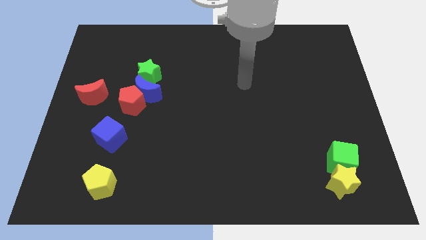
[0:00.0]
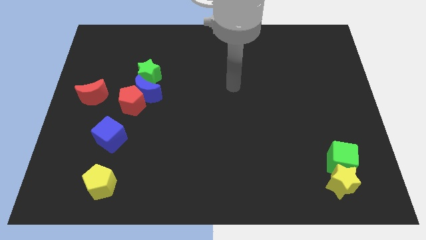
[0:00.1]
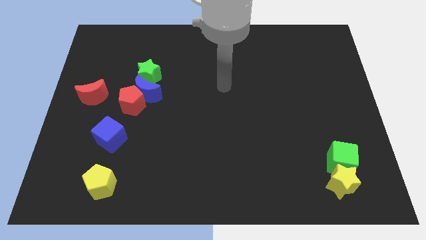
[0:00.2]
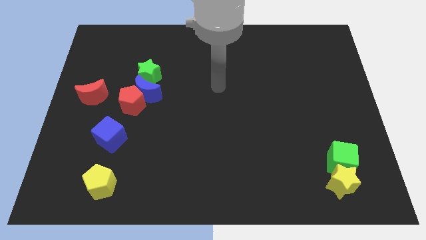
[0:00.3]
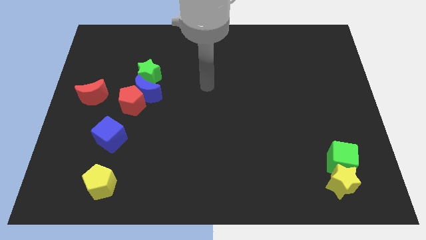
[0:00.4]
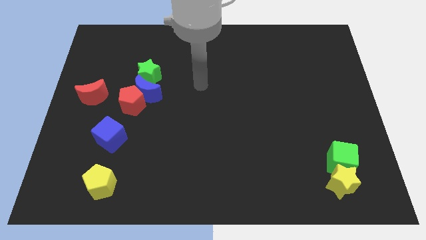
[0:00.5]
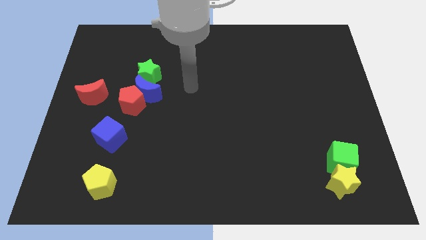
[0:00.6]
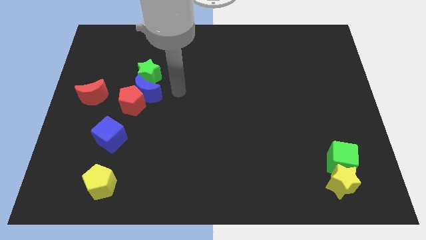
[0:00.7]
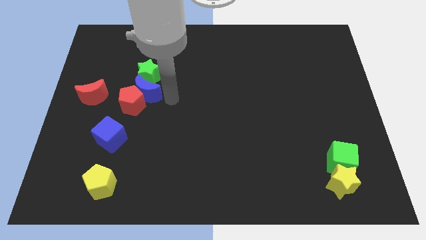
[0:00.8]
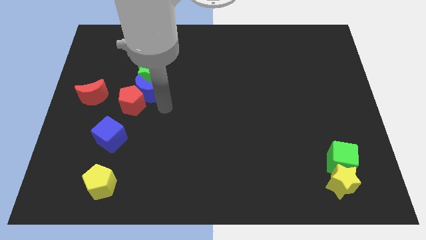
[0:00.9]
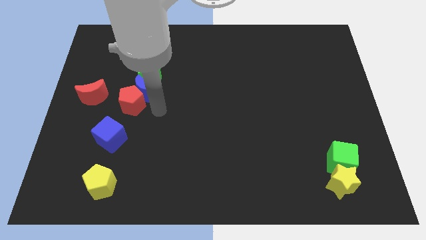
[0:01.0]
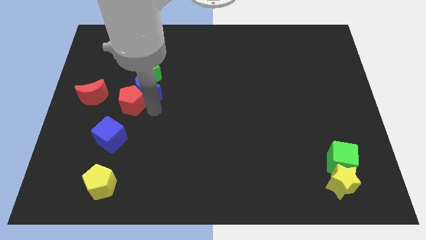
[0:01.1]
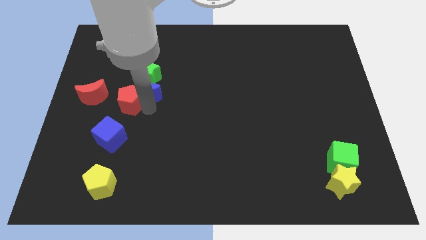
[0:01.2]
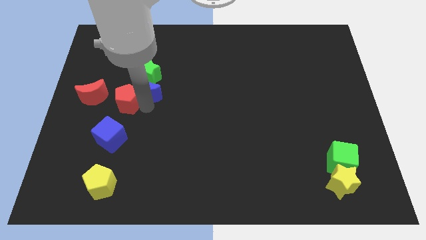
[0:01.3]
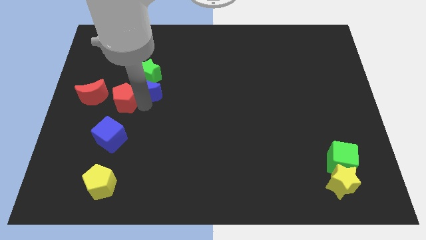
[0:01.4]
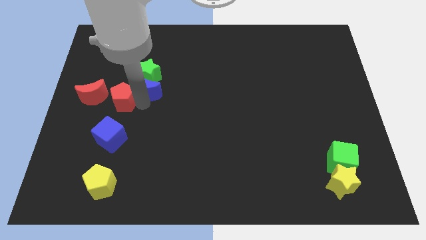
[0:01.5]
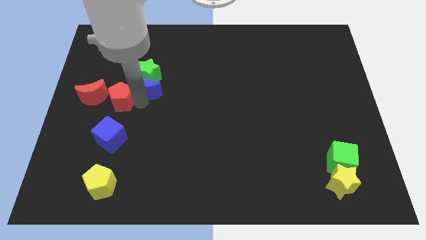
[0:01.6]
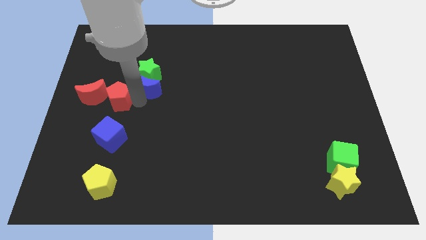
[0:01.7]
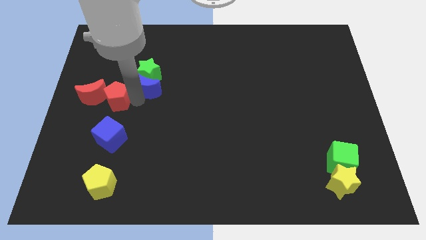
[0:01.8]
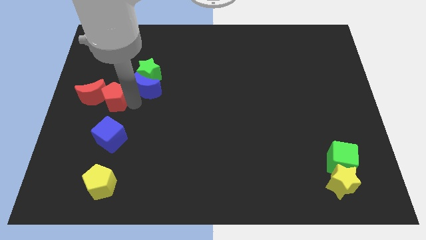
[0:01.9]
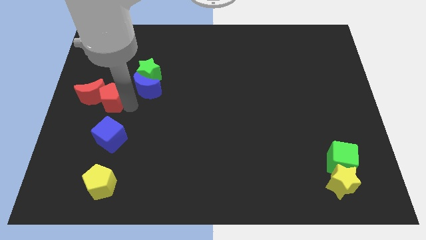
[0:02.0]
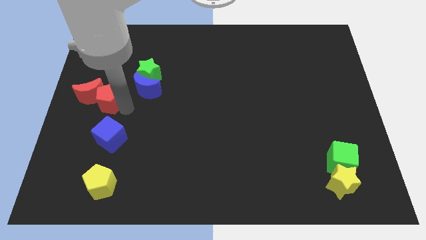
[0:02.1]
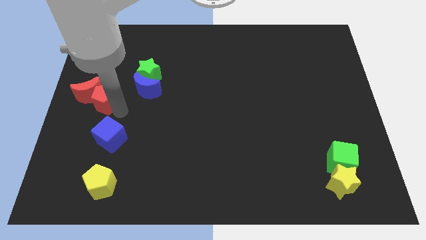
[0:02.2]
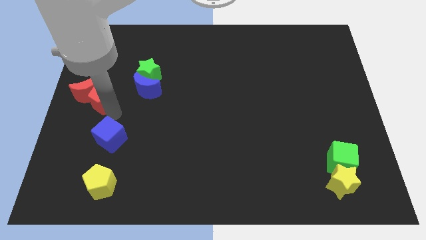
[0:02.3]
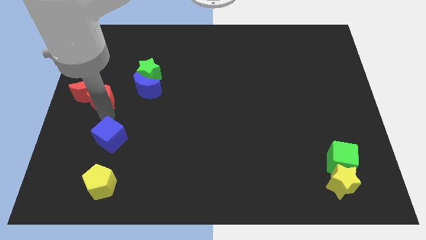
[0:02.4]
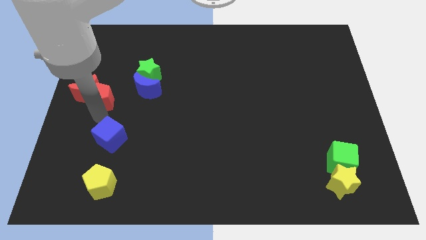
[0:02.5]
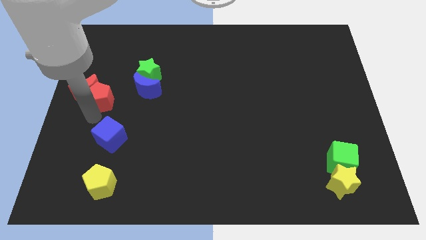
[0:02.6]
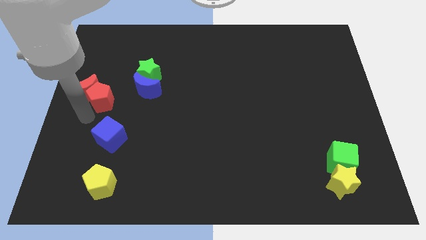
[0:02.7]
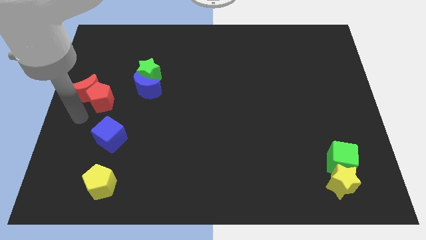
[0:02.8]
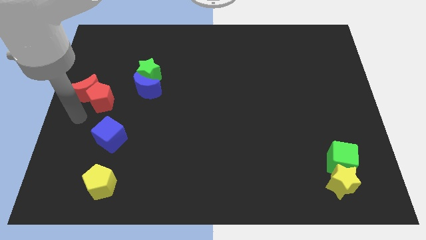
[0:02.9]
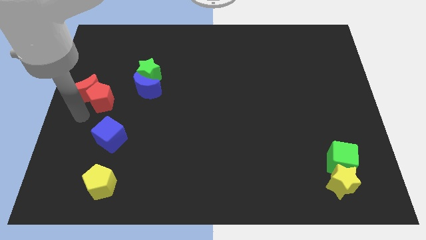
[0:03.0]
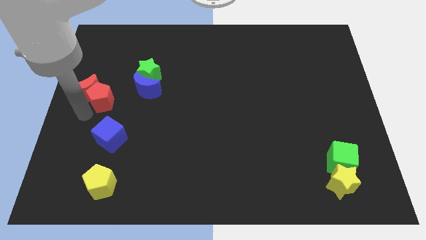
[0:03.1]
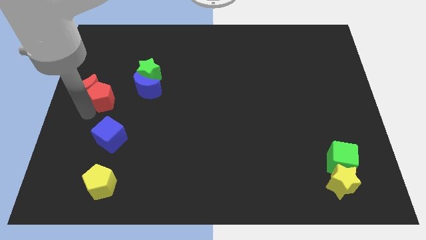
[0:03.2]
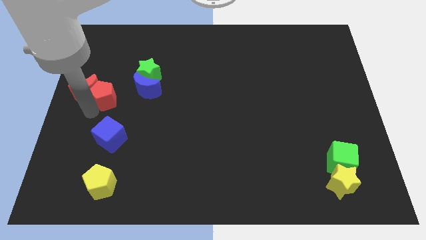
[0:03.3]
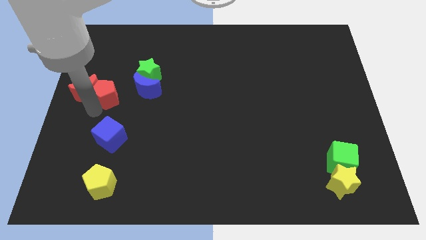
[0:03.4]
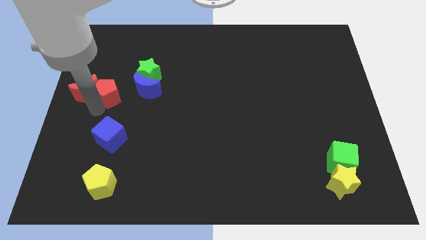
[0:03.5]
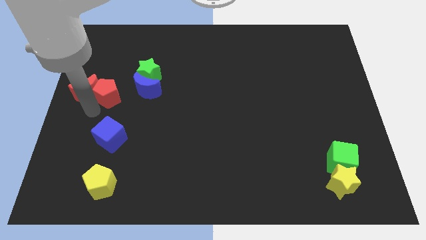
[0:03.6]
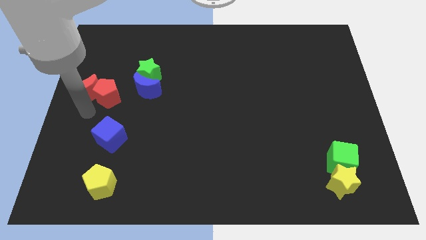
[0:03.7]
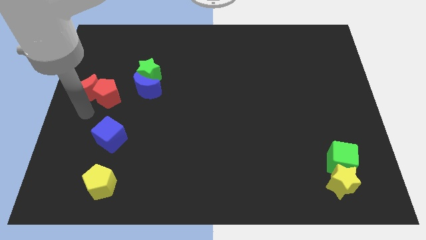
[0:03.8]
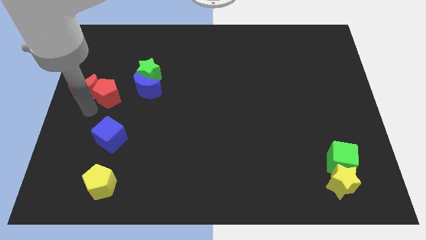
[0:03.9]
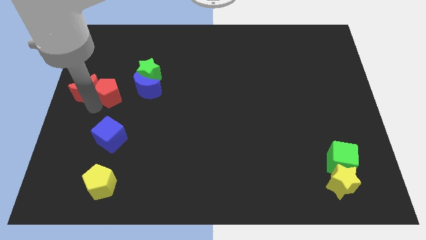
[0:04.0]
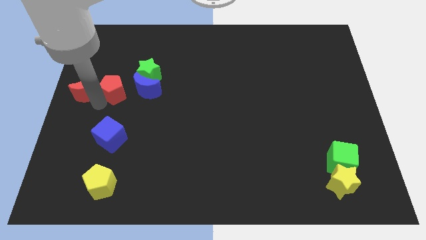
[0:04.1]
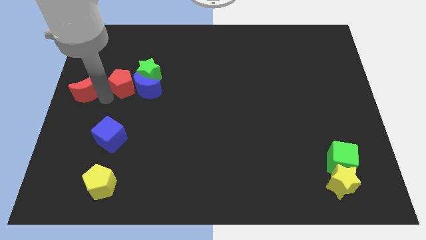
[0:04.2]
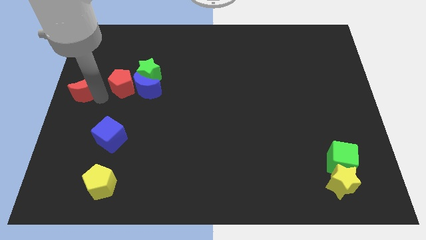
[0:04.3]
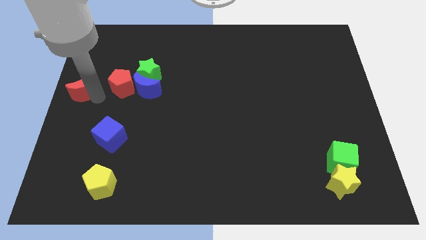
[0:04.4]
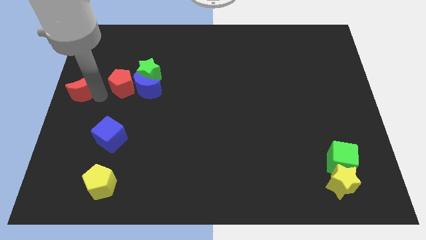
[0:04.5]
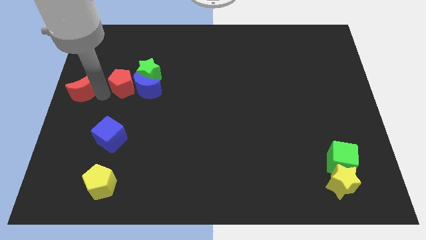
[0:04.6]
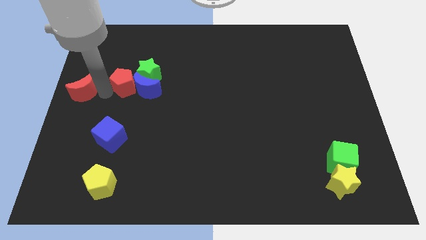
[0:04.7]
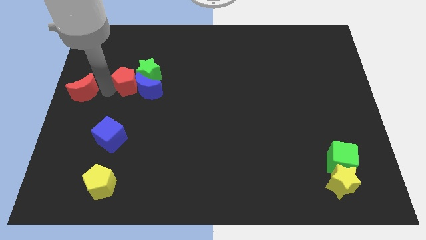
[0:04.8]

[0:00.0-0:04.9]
push the red pentagon towards the green star

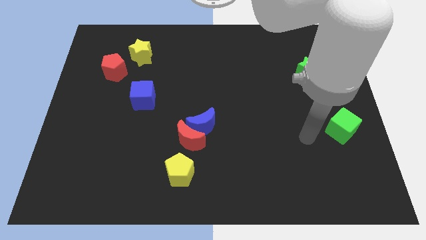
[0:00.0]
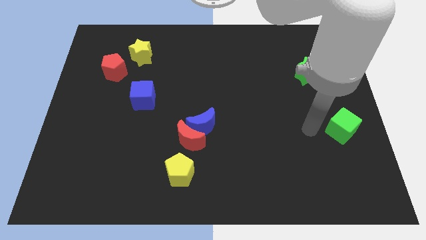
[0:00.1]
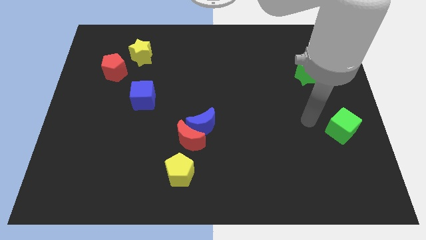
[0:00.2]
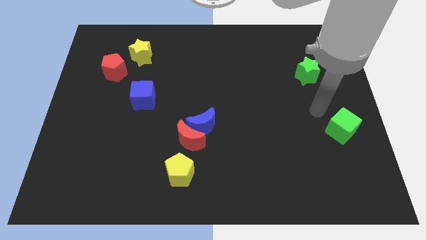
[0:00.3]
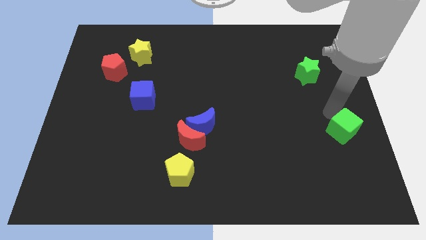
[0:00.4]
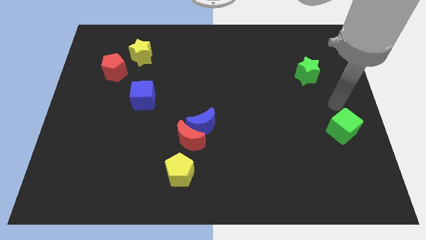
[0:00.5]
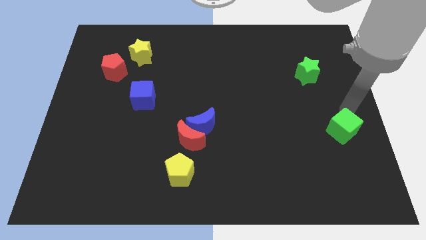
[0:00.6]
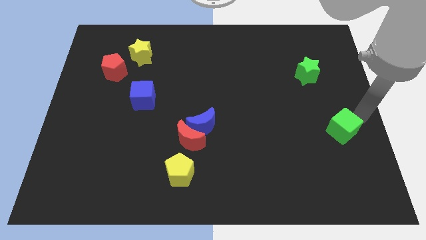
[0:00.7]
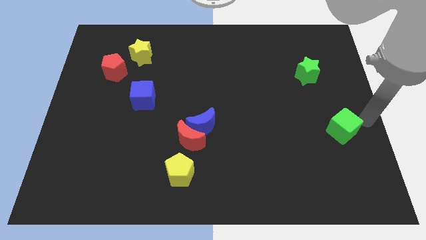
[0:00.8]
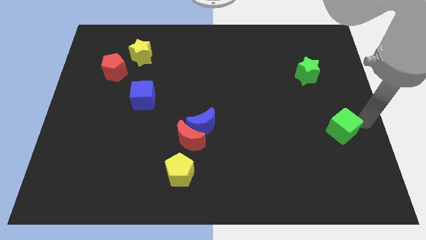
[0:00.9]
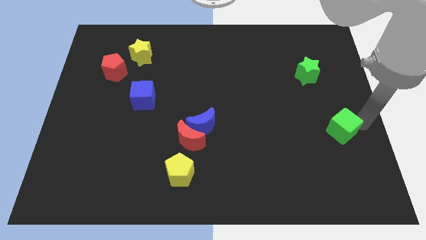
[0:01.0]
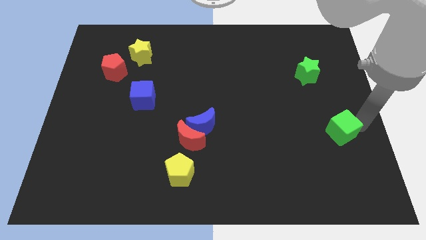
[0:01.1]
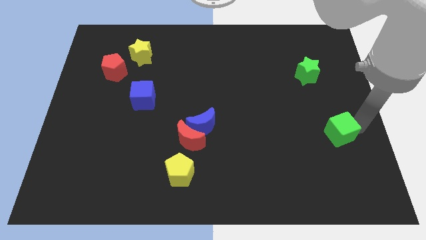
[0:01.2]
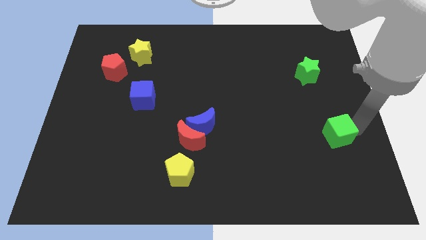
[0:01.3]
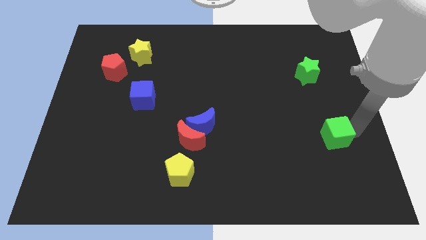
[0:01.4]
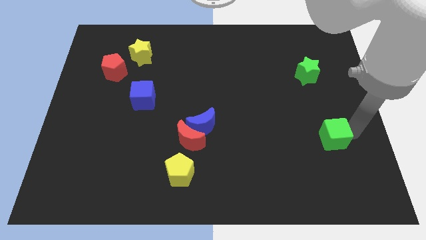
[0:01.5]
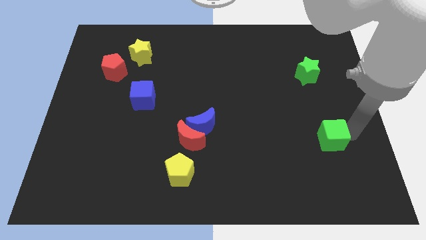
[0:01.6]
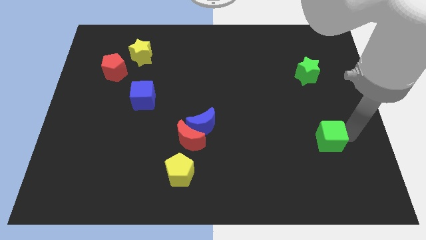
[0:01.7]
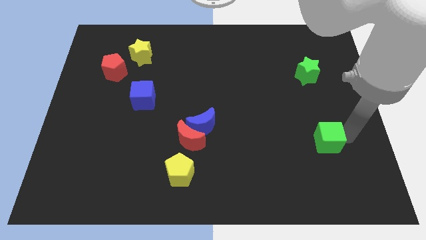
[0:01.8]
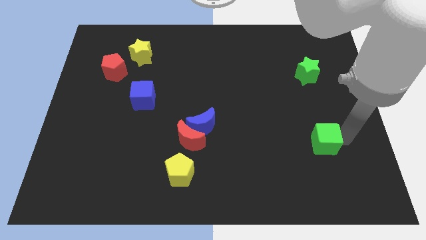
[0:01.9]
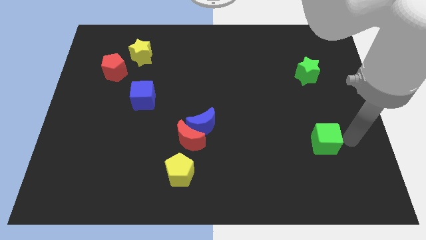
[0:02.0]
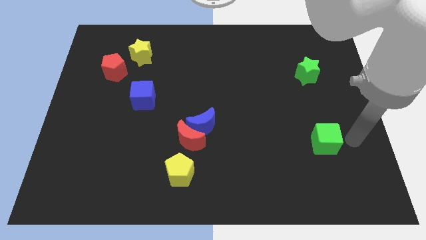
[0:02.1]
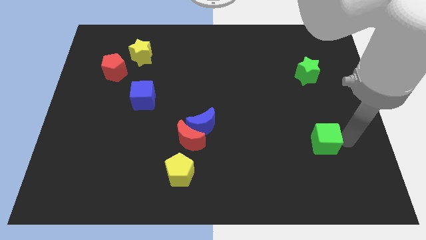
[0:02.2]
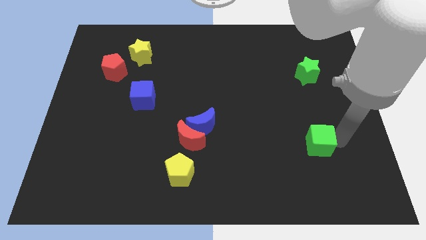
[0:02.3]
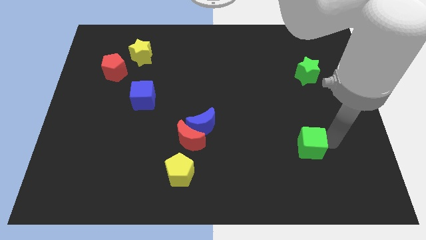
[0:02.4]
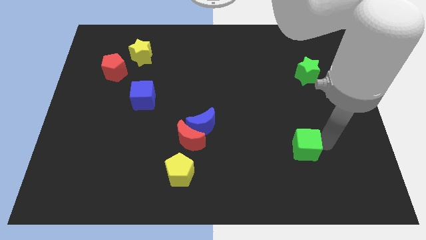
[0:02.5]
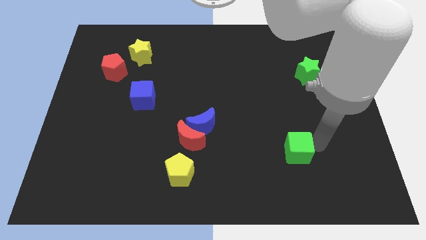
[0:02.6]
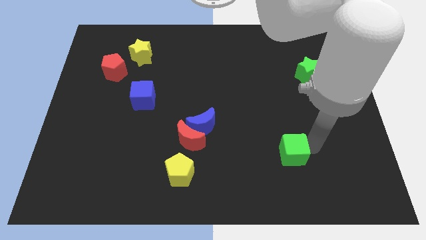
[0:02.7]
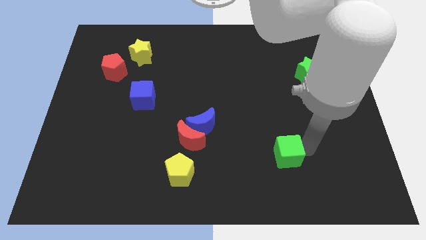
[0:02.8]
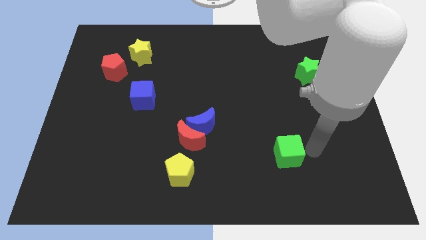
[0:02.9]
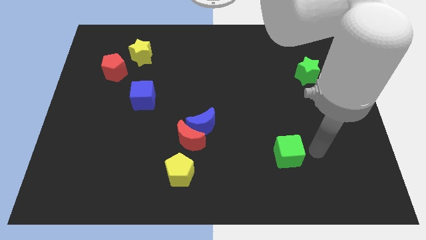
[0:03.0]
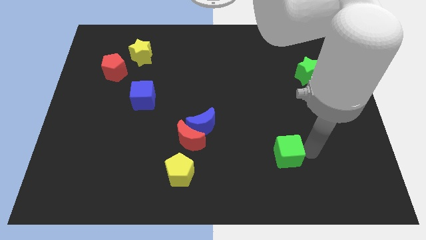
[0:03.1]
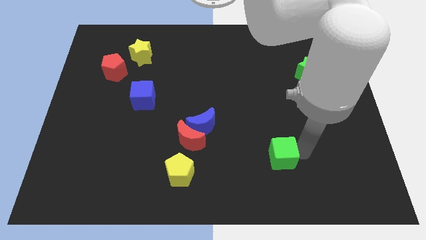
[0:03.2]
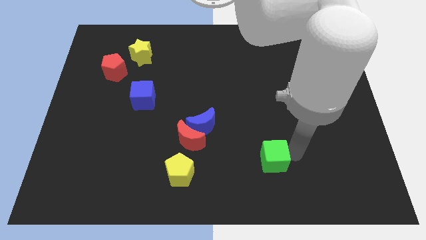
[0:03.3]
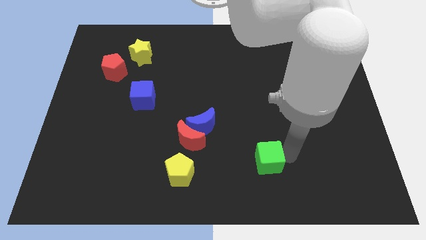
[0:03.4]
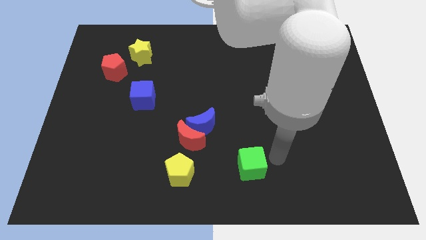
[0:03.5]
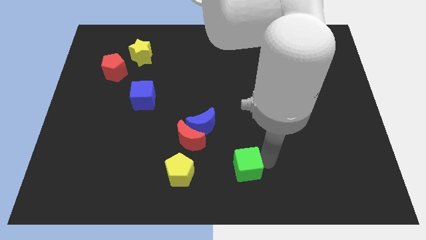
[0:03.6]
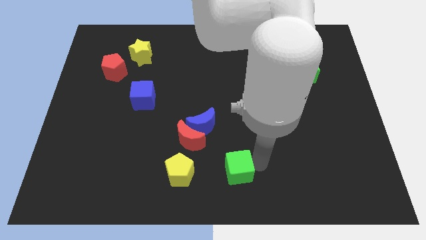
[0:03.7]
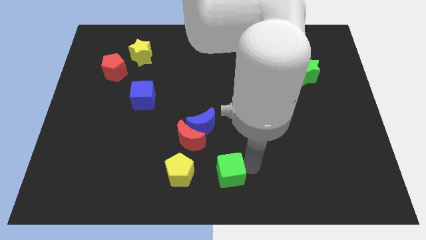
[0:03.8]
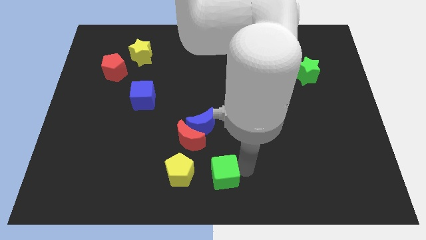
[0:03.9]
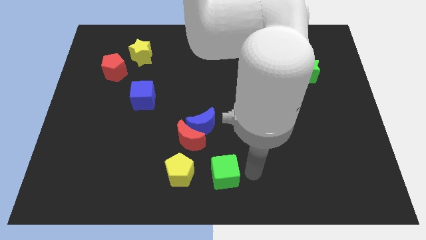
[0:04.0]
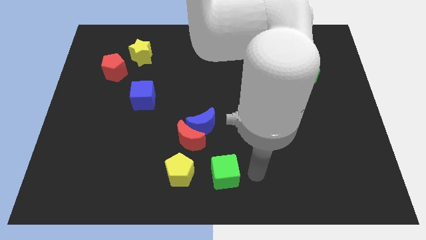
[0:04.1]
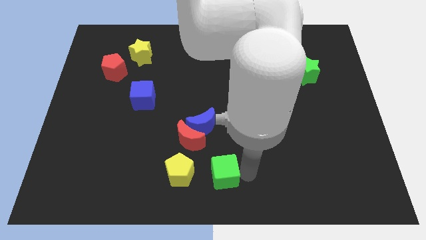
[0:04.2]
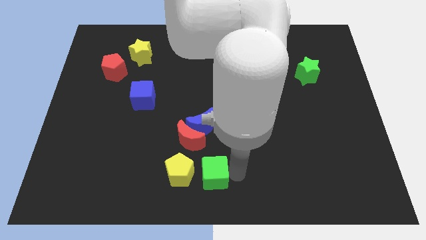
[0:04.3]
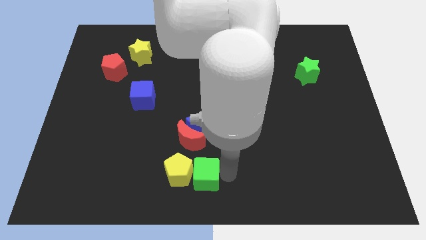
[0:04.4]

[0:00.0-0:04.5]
push the green cube next to the yellow pentagon
